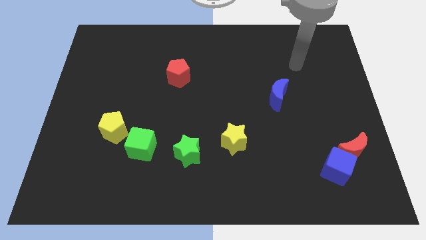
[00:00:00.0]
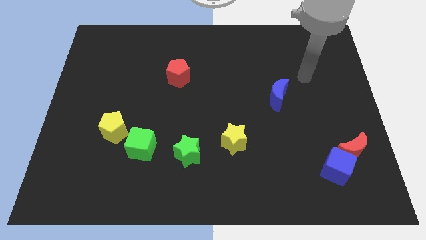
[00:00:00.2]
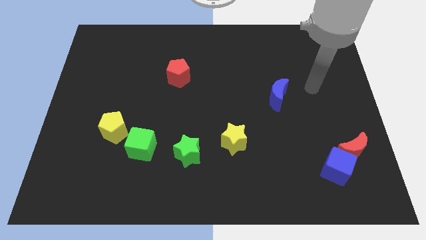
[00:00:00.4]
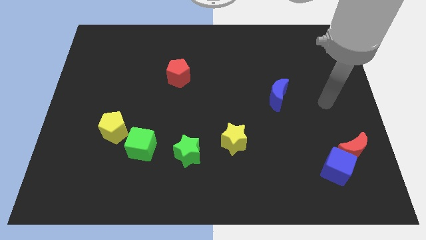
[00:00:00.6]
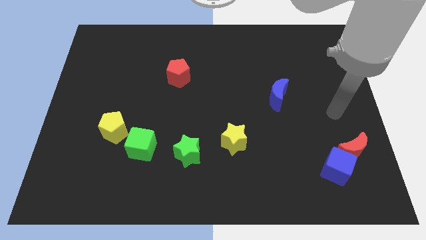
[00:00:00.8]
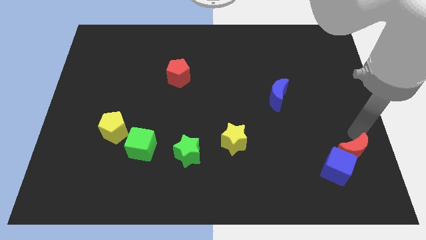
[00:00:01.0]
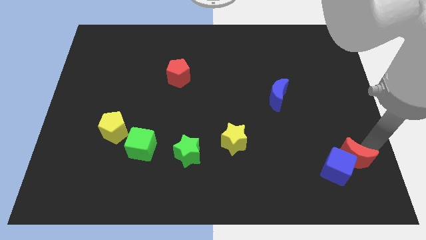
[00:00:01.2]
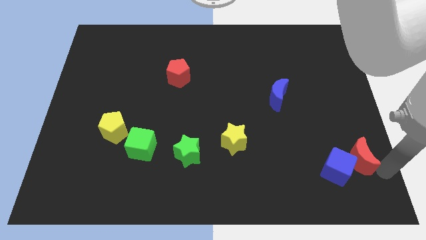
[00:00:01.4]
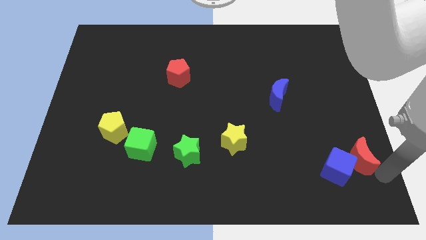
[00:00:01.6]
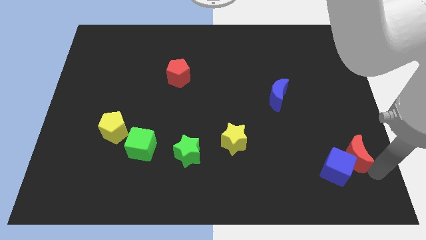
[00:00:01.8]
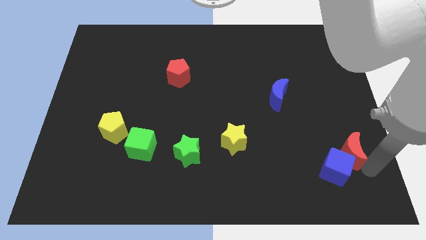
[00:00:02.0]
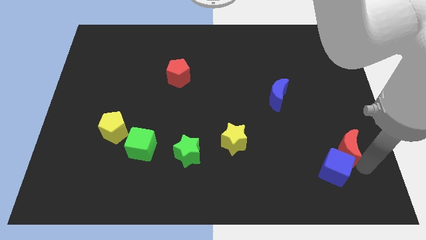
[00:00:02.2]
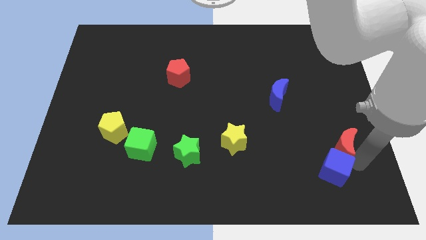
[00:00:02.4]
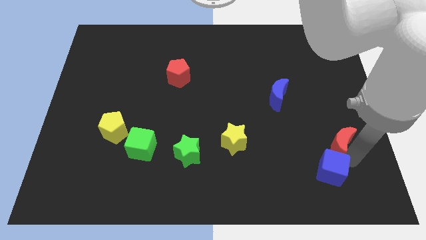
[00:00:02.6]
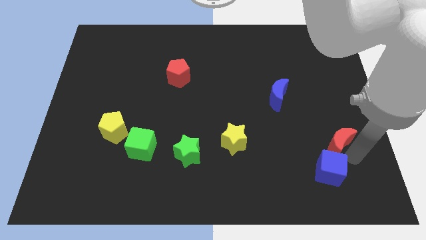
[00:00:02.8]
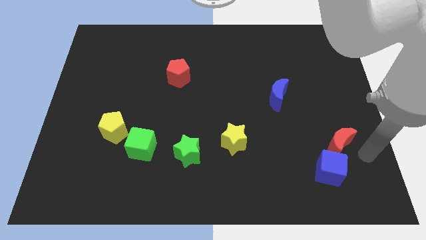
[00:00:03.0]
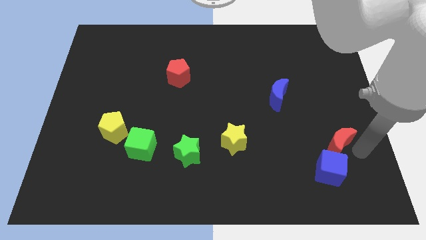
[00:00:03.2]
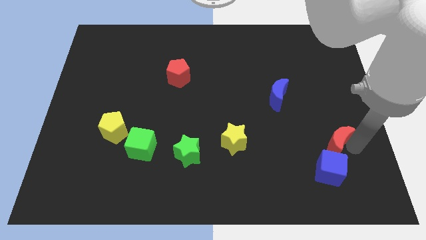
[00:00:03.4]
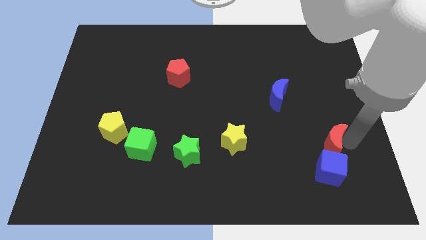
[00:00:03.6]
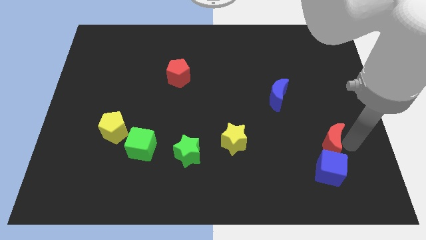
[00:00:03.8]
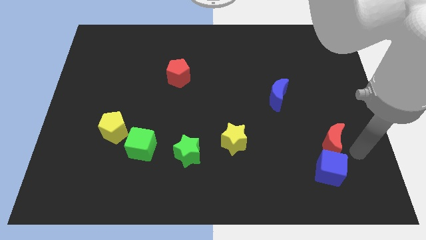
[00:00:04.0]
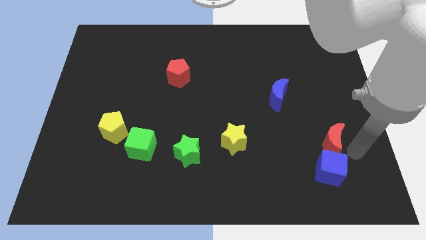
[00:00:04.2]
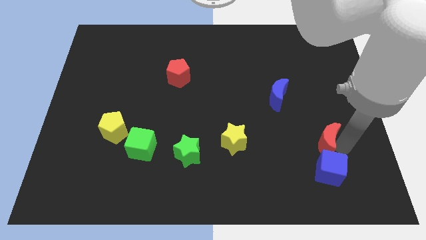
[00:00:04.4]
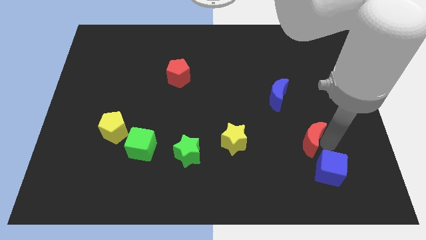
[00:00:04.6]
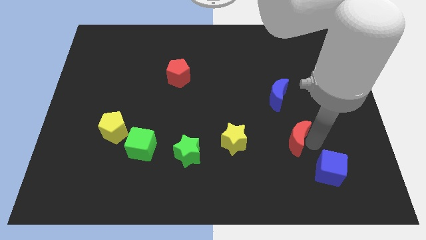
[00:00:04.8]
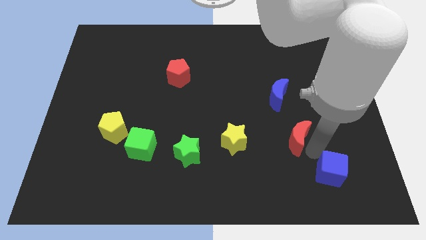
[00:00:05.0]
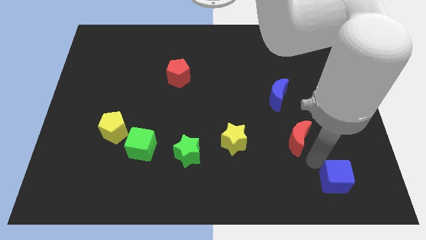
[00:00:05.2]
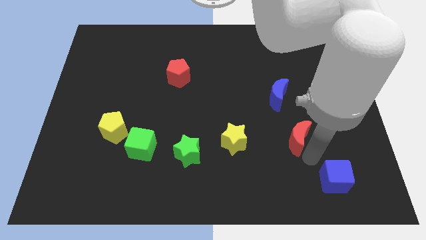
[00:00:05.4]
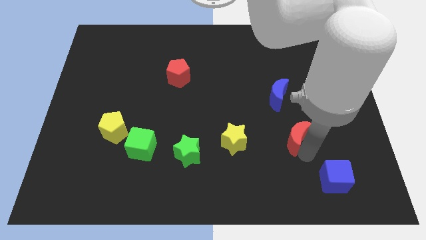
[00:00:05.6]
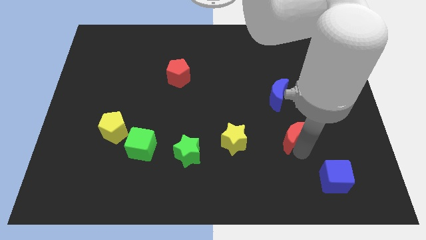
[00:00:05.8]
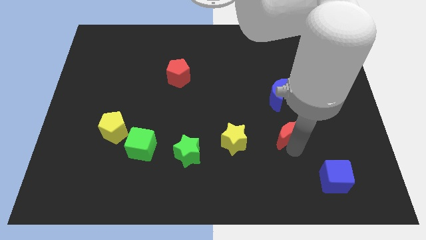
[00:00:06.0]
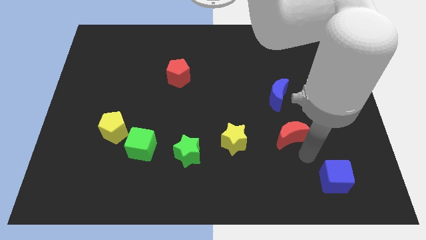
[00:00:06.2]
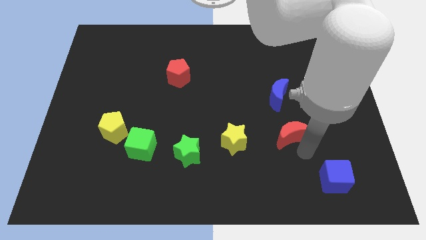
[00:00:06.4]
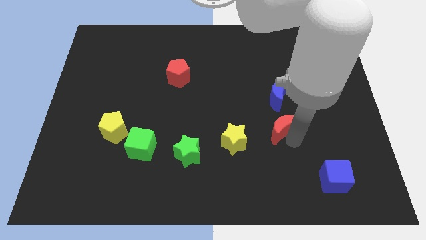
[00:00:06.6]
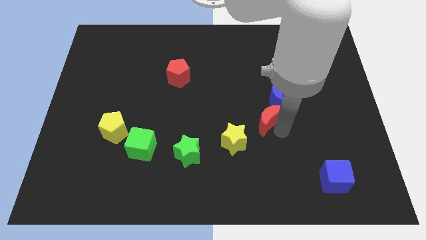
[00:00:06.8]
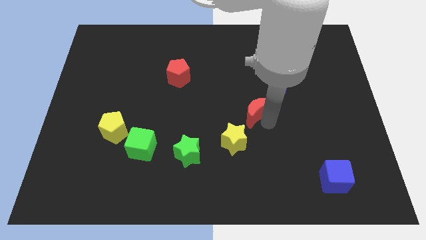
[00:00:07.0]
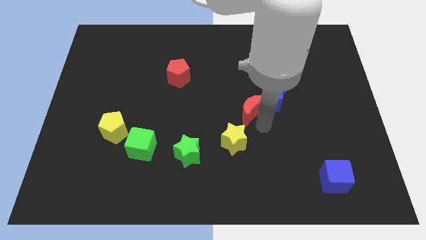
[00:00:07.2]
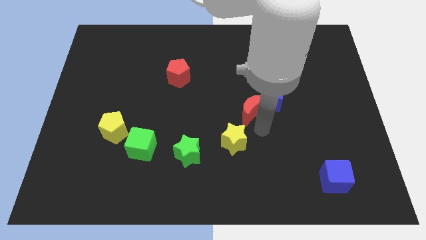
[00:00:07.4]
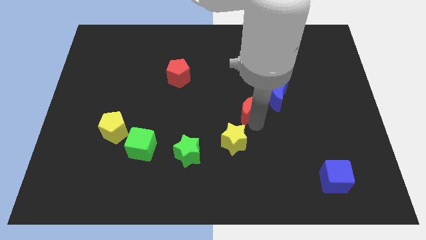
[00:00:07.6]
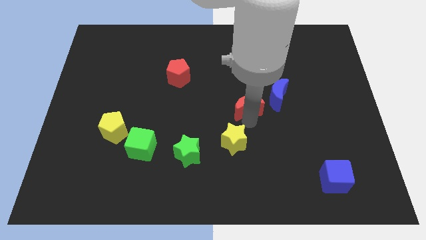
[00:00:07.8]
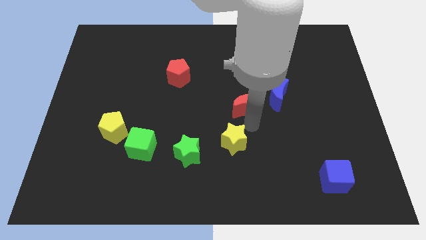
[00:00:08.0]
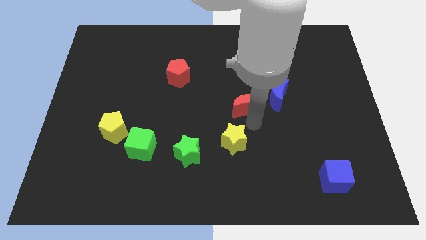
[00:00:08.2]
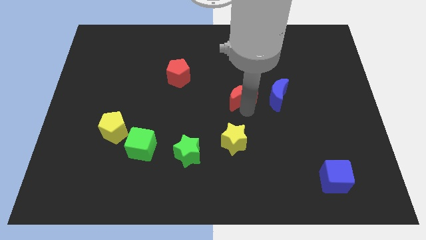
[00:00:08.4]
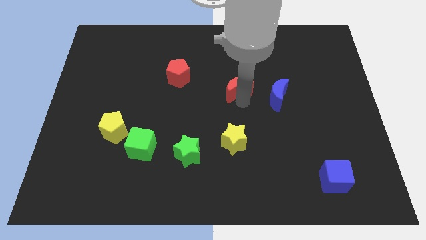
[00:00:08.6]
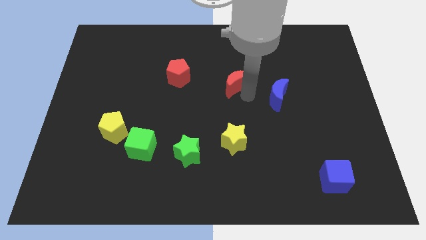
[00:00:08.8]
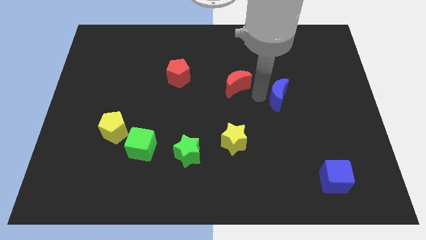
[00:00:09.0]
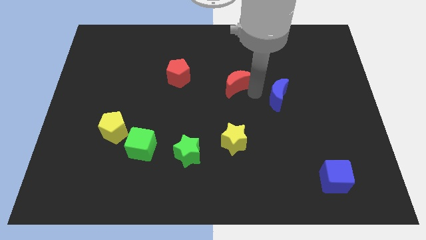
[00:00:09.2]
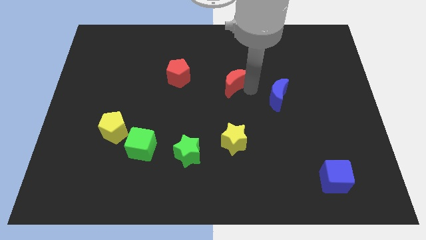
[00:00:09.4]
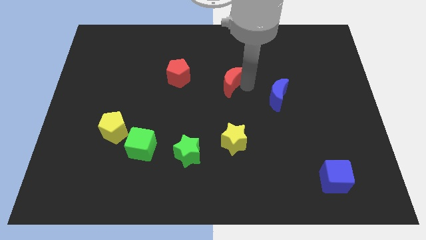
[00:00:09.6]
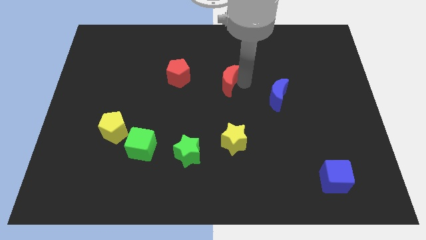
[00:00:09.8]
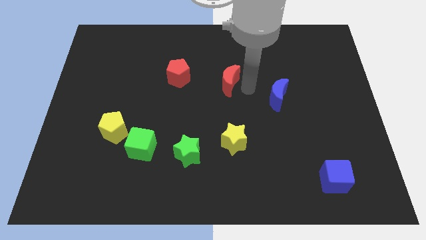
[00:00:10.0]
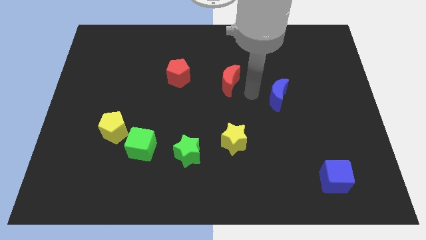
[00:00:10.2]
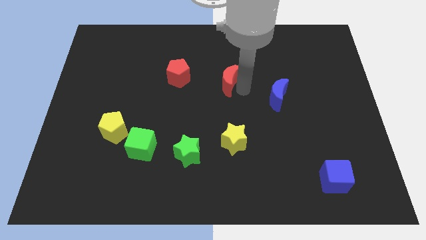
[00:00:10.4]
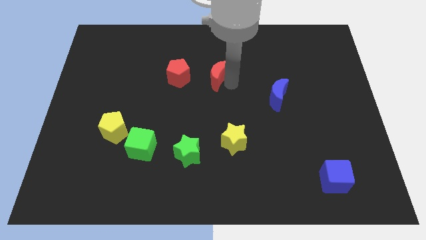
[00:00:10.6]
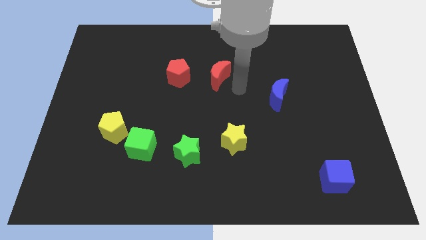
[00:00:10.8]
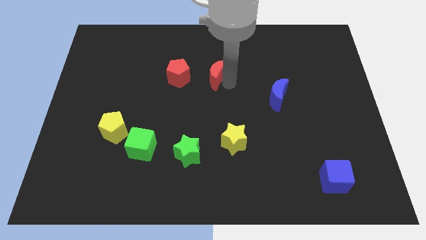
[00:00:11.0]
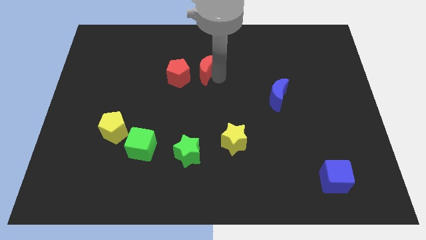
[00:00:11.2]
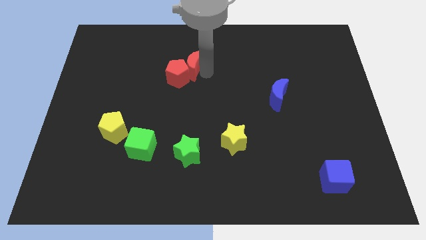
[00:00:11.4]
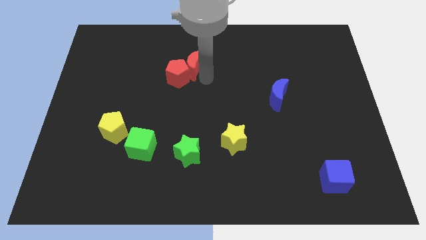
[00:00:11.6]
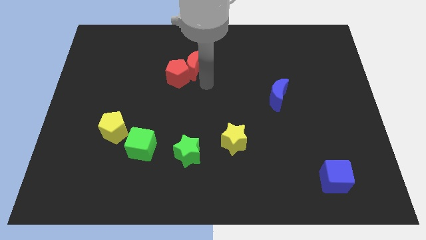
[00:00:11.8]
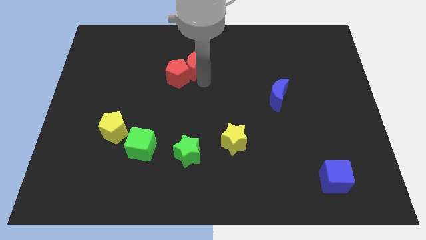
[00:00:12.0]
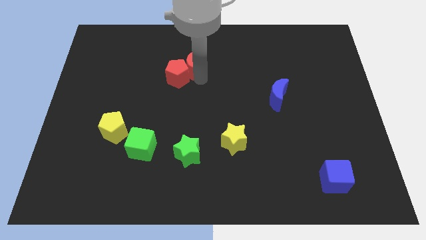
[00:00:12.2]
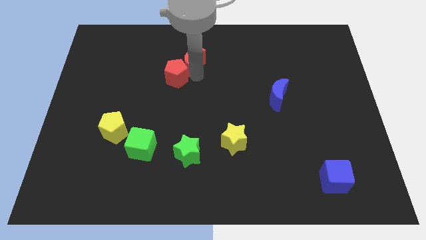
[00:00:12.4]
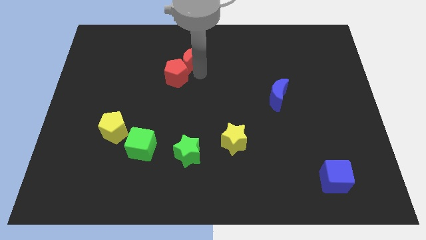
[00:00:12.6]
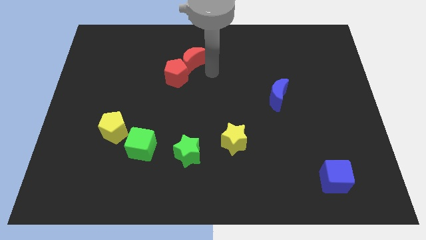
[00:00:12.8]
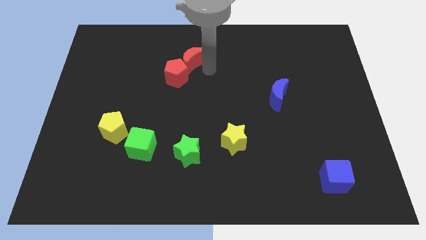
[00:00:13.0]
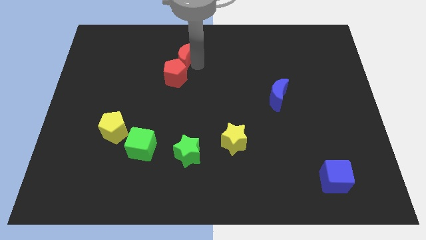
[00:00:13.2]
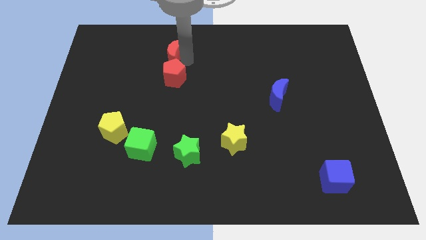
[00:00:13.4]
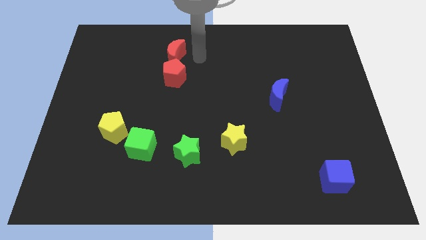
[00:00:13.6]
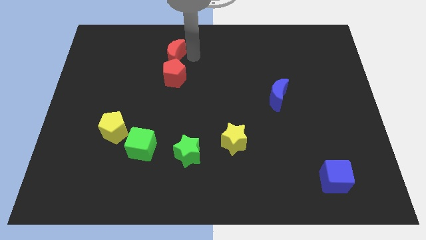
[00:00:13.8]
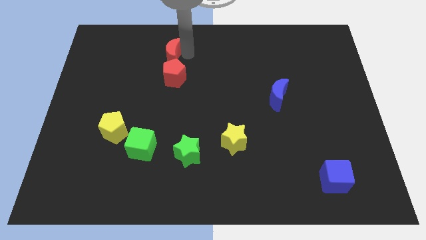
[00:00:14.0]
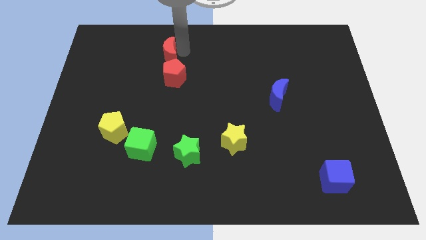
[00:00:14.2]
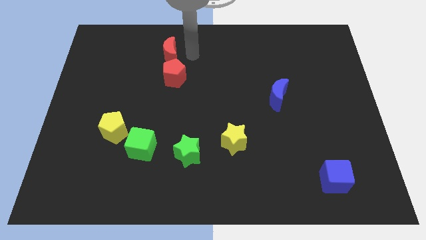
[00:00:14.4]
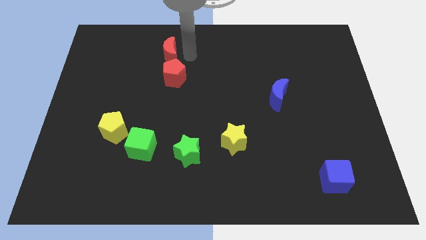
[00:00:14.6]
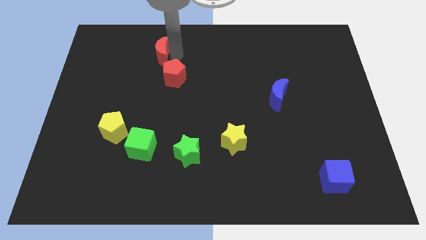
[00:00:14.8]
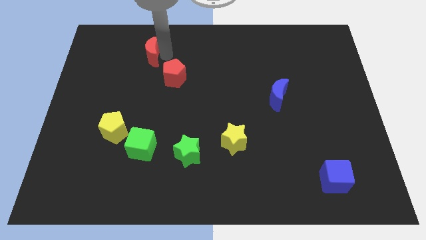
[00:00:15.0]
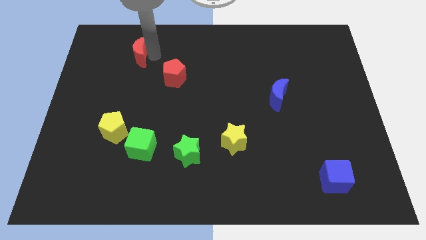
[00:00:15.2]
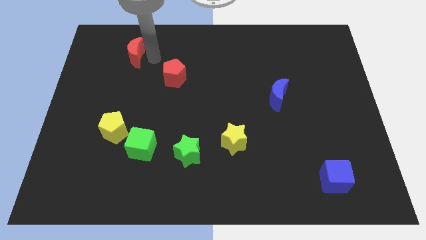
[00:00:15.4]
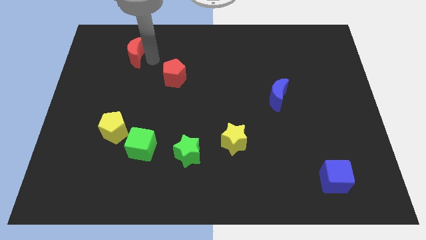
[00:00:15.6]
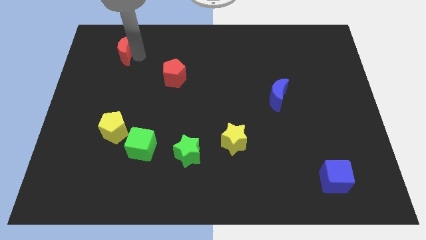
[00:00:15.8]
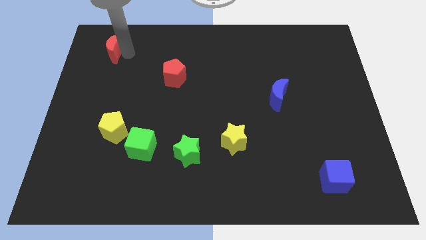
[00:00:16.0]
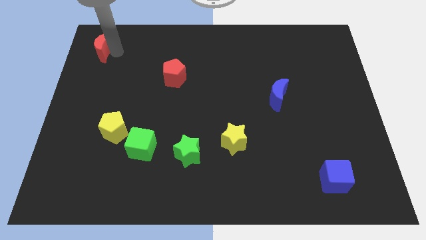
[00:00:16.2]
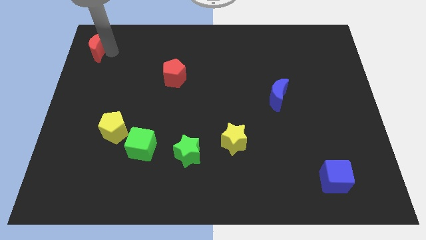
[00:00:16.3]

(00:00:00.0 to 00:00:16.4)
put the red moon to the top left of the board
